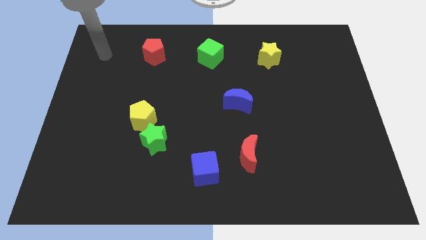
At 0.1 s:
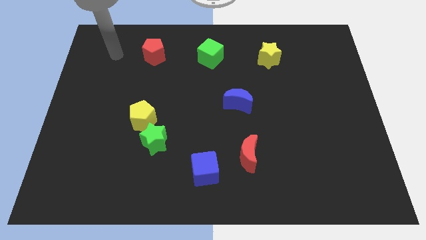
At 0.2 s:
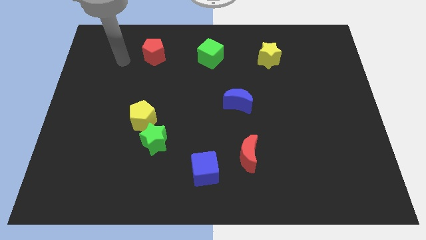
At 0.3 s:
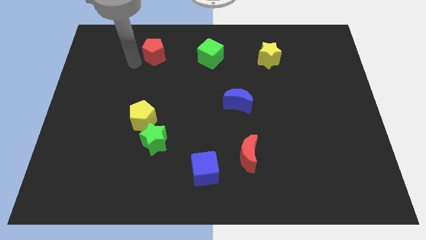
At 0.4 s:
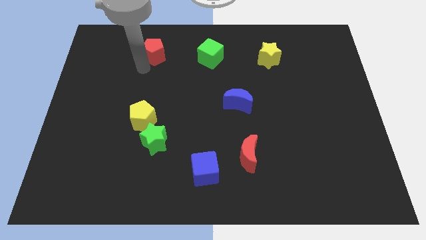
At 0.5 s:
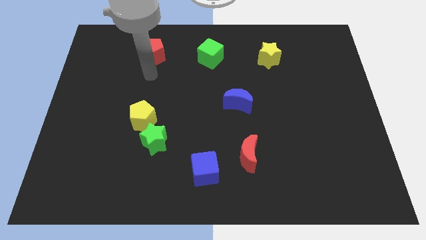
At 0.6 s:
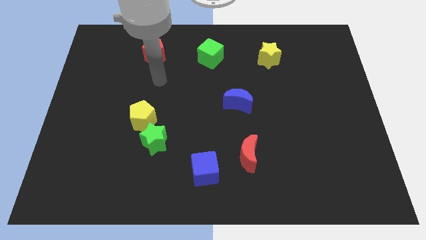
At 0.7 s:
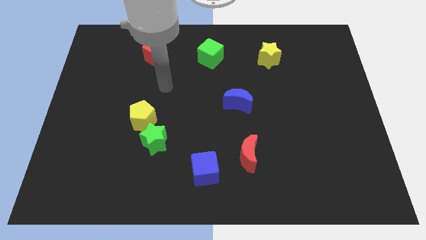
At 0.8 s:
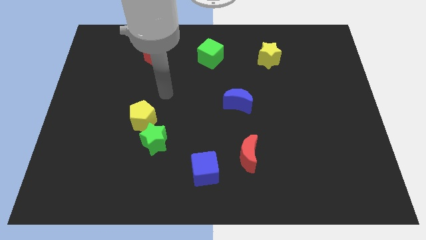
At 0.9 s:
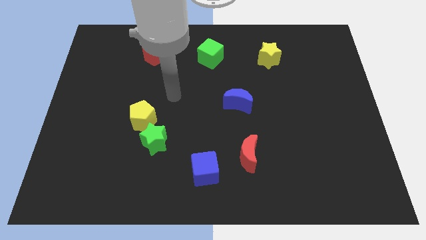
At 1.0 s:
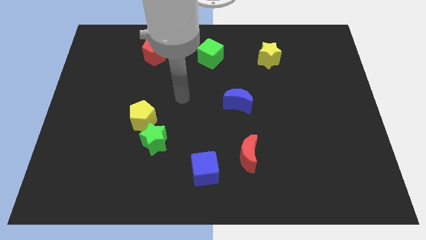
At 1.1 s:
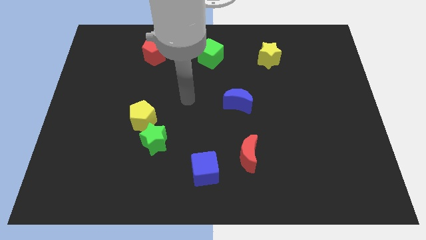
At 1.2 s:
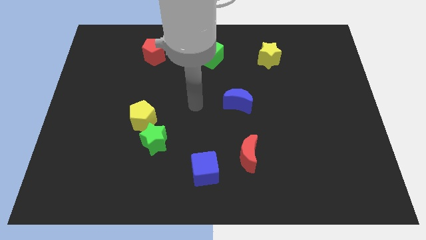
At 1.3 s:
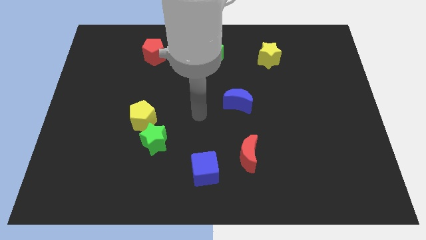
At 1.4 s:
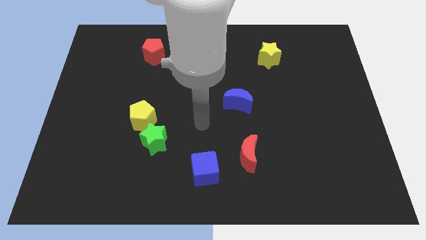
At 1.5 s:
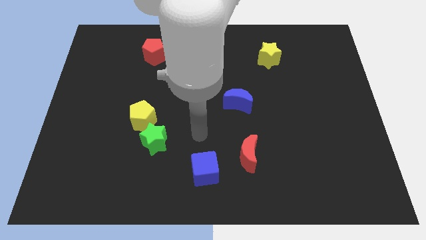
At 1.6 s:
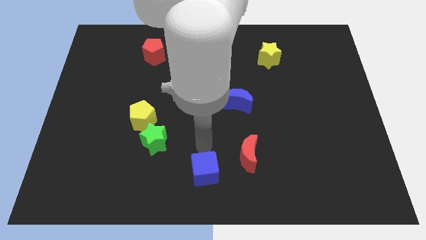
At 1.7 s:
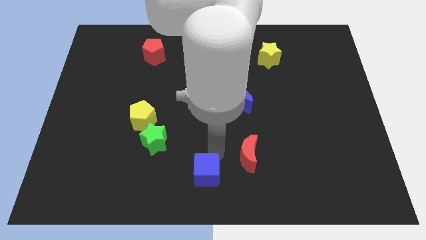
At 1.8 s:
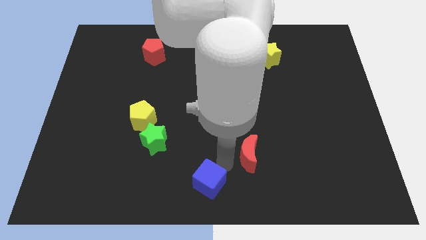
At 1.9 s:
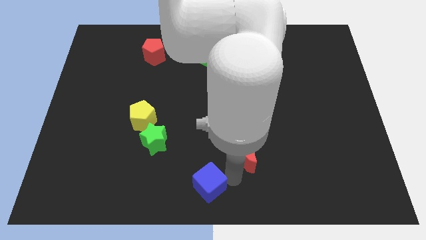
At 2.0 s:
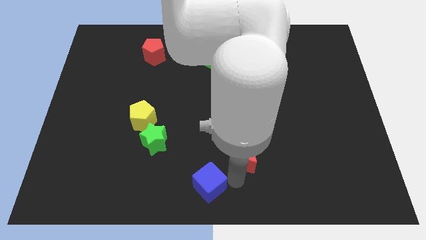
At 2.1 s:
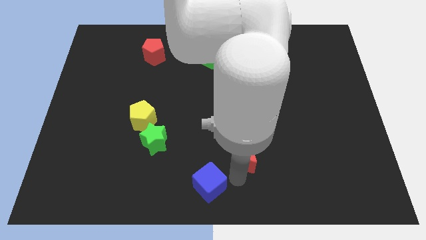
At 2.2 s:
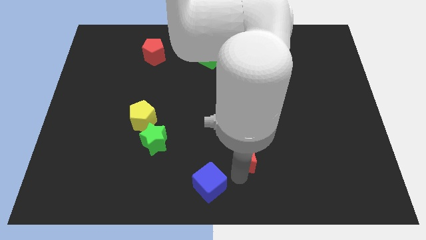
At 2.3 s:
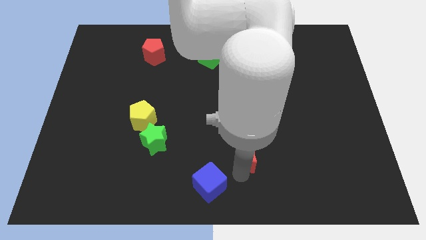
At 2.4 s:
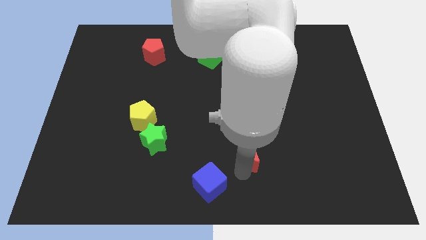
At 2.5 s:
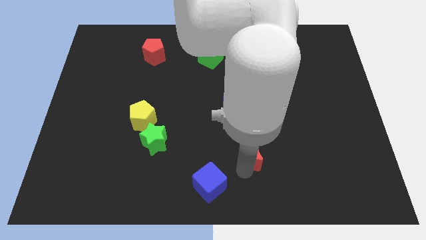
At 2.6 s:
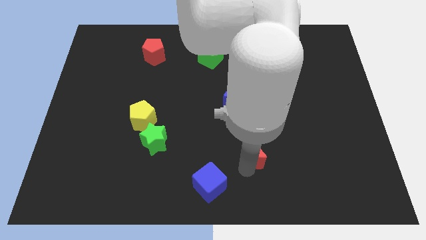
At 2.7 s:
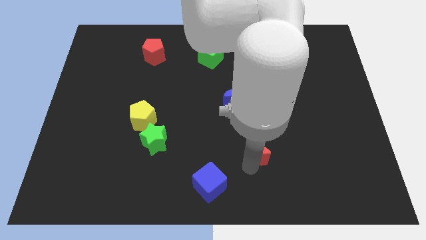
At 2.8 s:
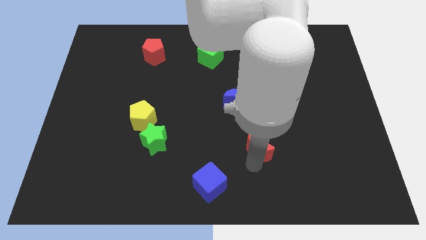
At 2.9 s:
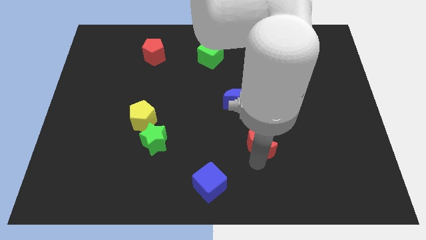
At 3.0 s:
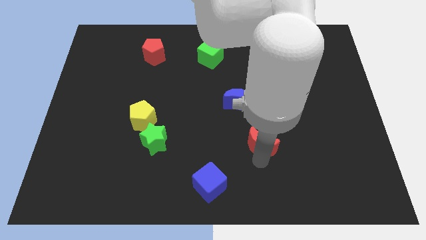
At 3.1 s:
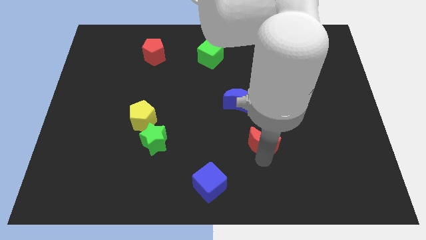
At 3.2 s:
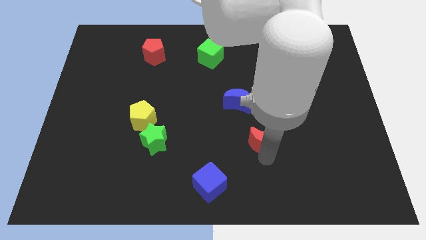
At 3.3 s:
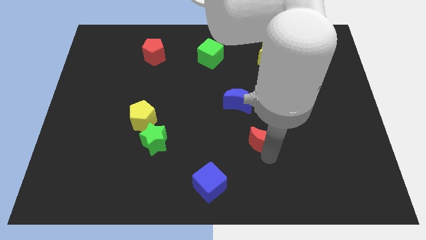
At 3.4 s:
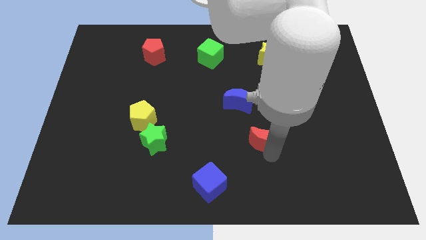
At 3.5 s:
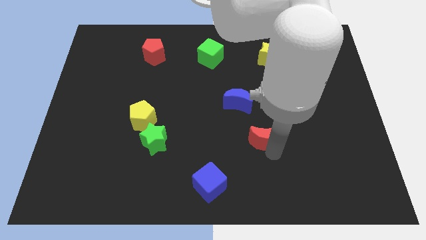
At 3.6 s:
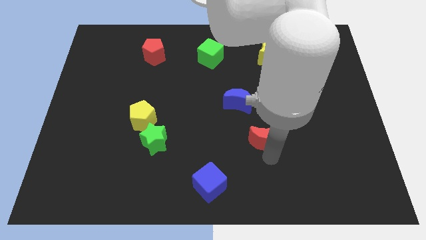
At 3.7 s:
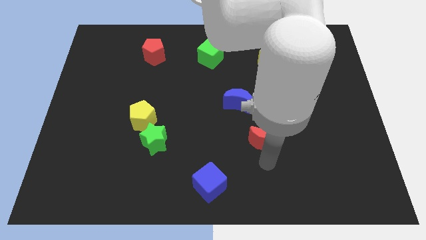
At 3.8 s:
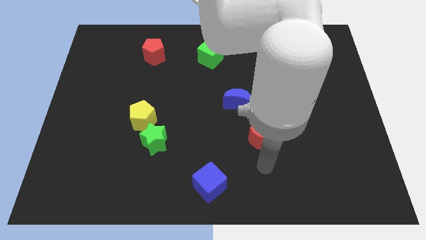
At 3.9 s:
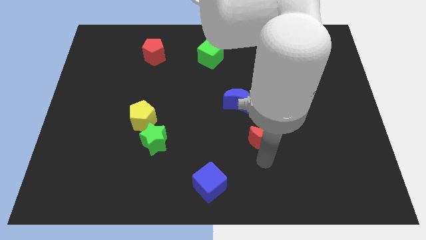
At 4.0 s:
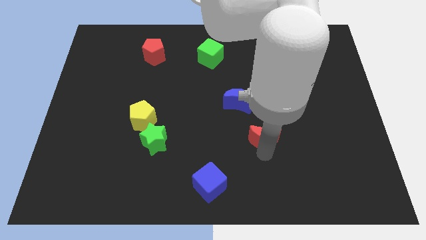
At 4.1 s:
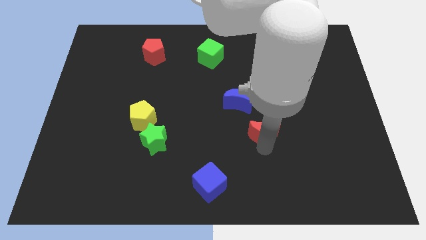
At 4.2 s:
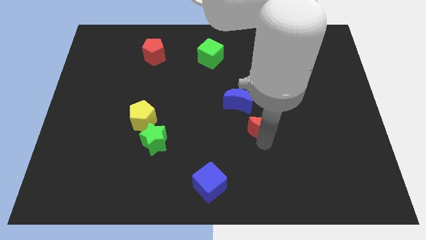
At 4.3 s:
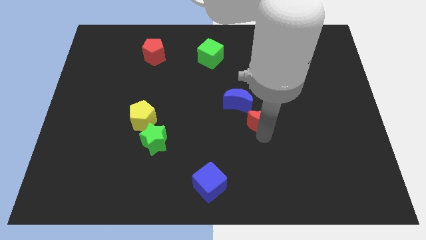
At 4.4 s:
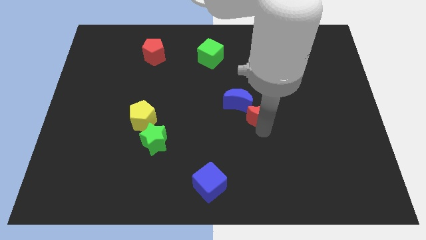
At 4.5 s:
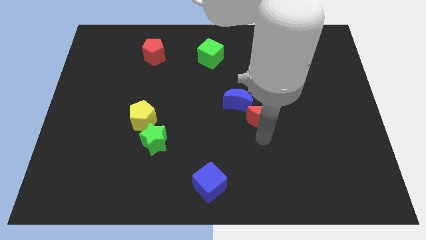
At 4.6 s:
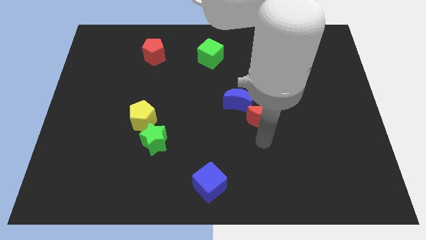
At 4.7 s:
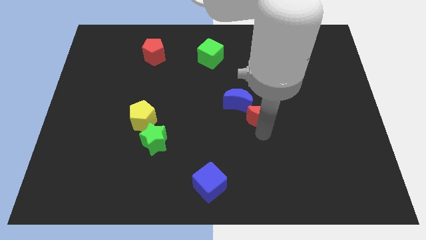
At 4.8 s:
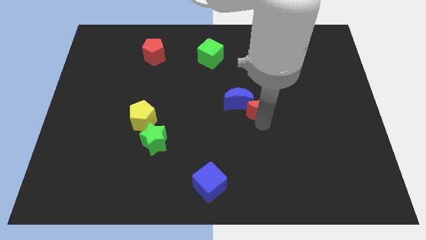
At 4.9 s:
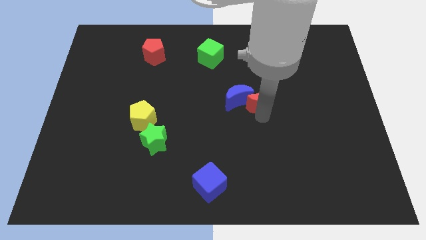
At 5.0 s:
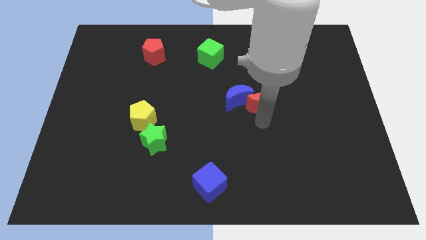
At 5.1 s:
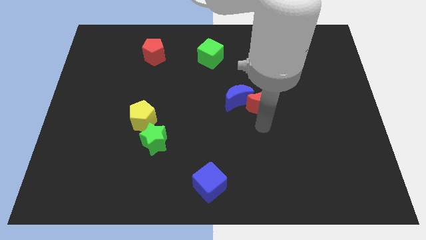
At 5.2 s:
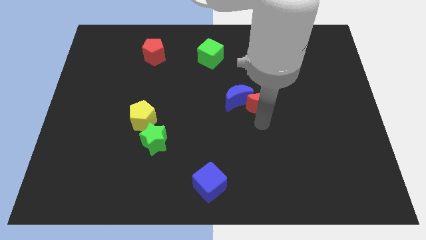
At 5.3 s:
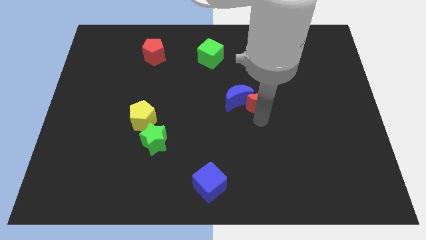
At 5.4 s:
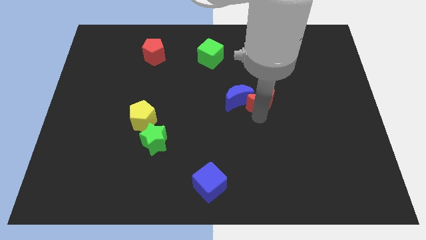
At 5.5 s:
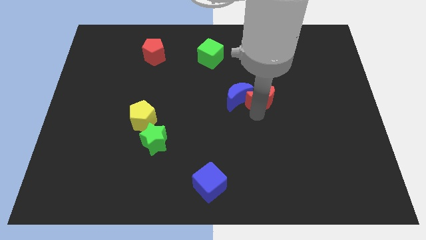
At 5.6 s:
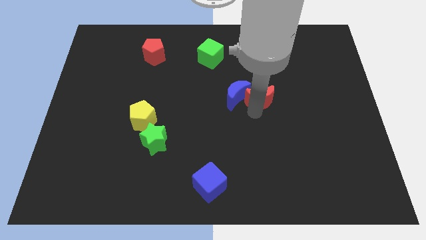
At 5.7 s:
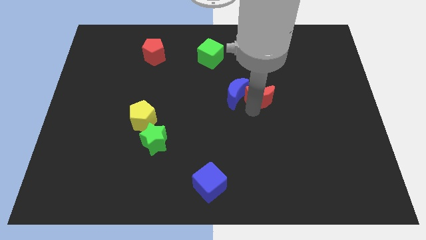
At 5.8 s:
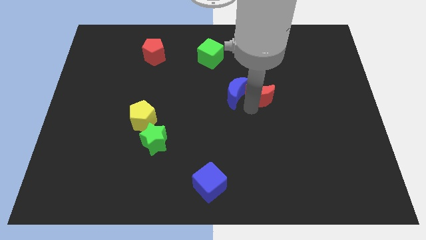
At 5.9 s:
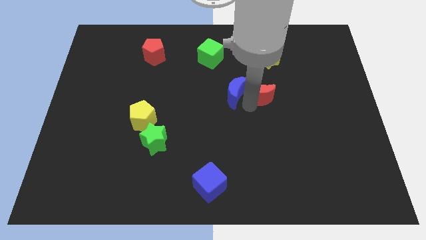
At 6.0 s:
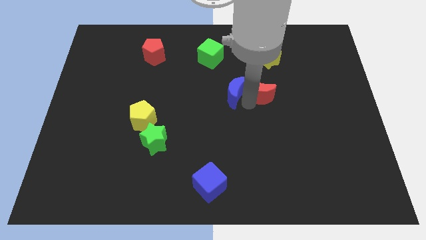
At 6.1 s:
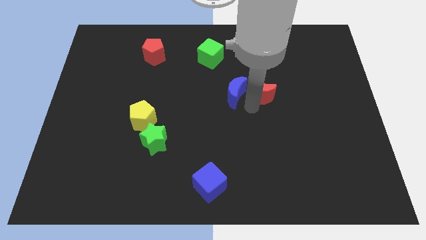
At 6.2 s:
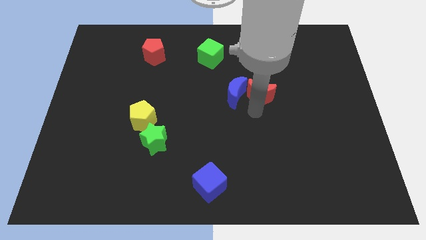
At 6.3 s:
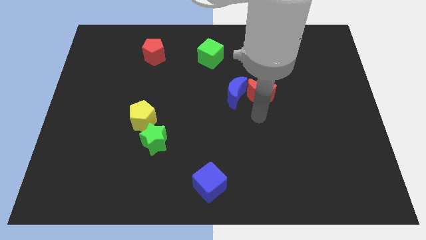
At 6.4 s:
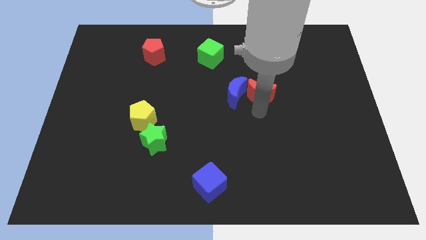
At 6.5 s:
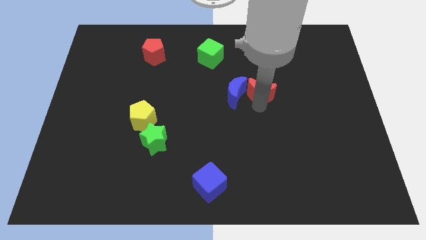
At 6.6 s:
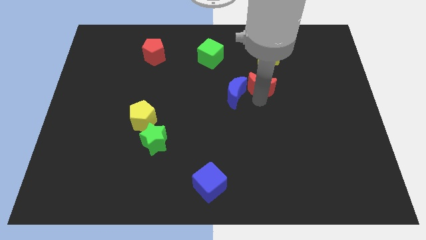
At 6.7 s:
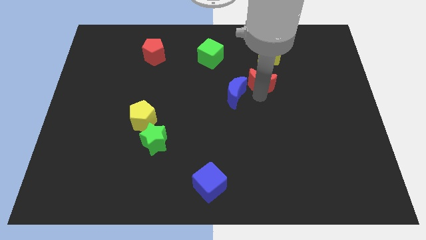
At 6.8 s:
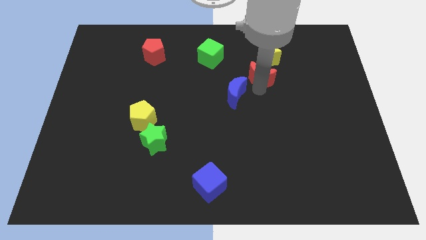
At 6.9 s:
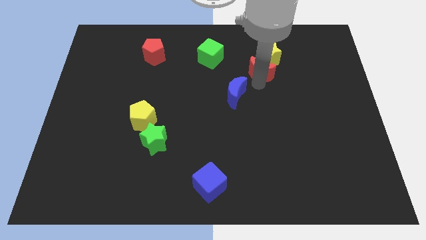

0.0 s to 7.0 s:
slide the red moon next to the yellow star
